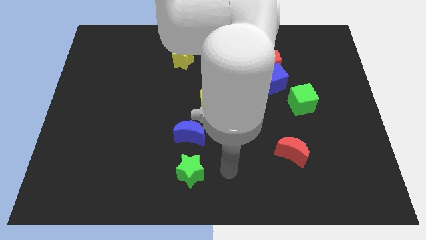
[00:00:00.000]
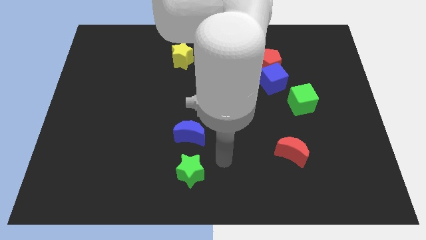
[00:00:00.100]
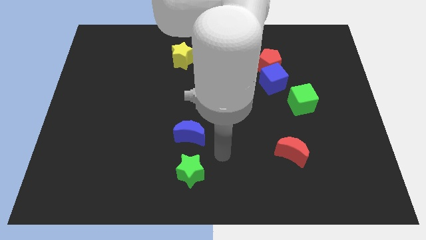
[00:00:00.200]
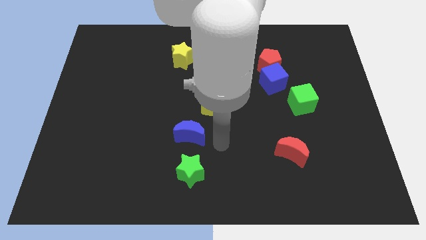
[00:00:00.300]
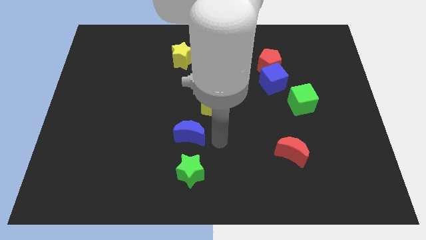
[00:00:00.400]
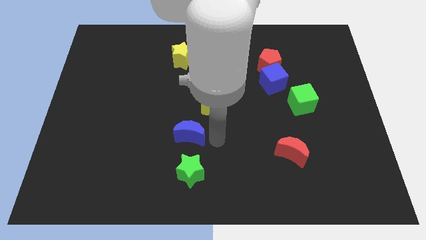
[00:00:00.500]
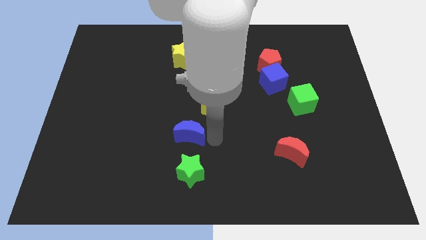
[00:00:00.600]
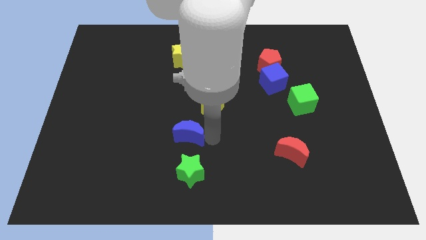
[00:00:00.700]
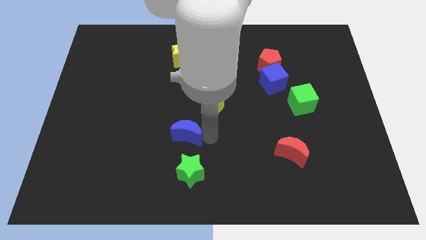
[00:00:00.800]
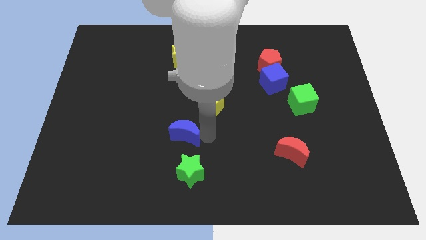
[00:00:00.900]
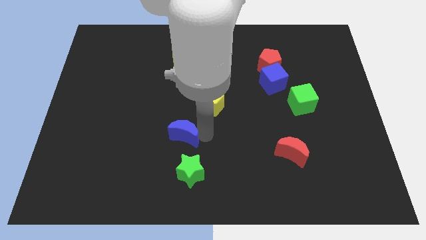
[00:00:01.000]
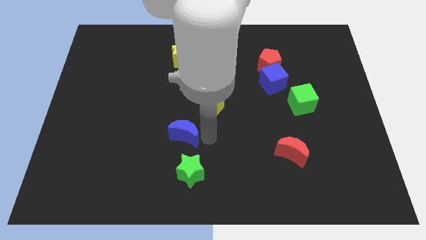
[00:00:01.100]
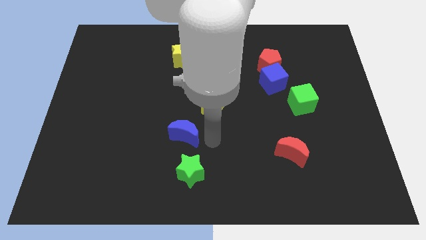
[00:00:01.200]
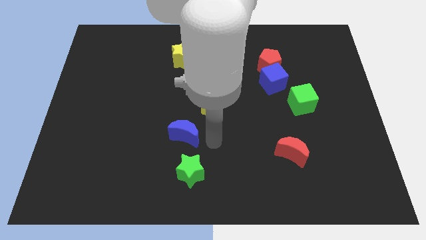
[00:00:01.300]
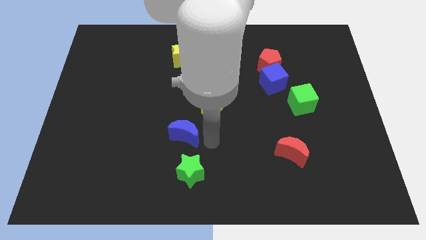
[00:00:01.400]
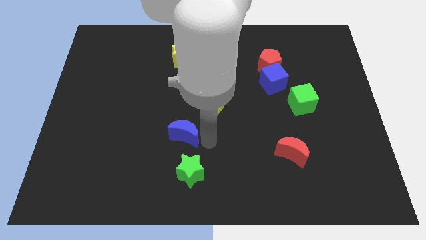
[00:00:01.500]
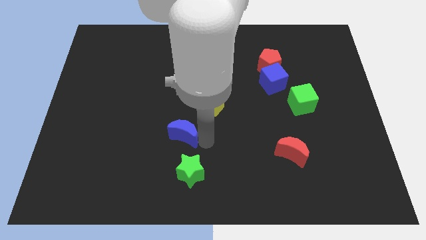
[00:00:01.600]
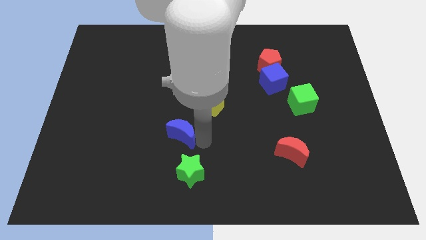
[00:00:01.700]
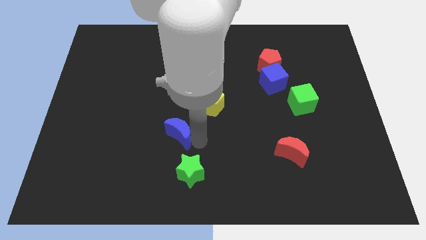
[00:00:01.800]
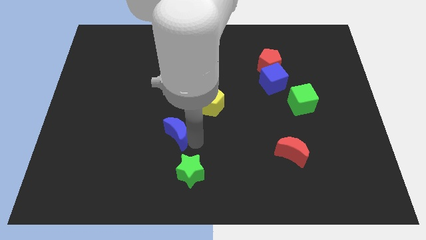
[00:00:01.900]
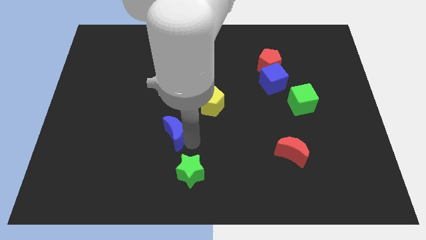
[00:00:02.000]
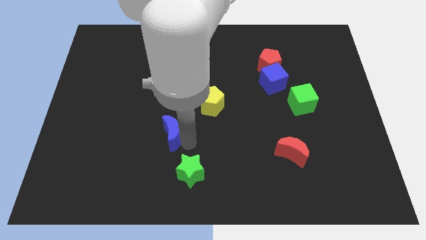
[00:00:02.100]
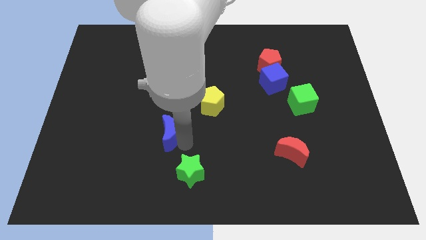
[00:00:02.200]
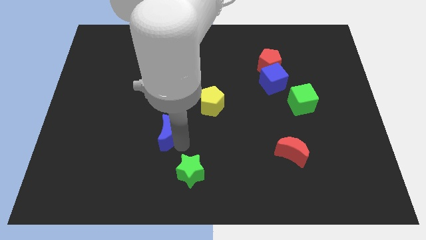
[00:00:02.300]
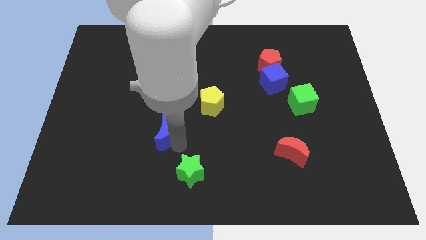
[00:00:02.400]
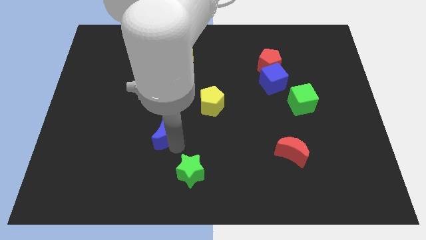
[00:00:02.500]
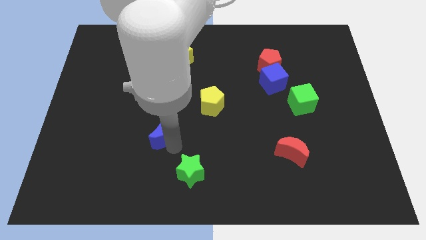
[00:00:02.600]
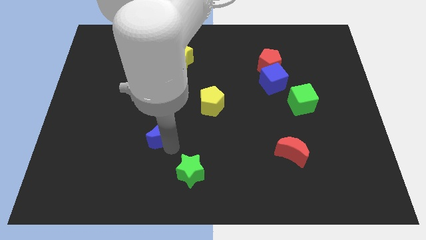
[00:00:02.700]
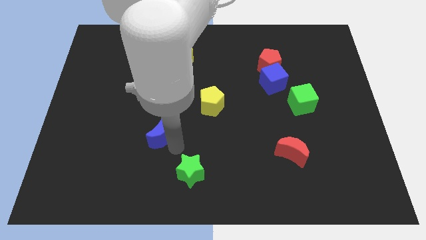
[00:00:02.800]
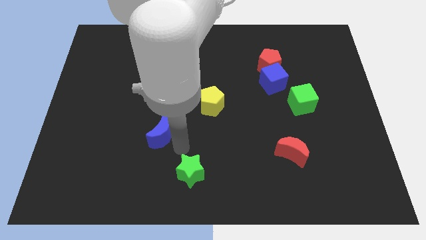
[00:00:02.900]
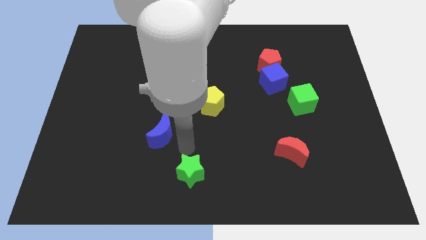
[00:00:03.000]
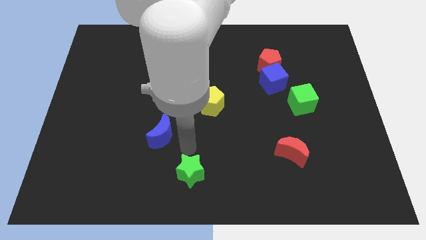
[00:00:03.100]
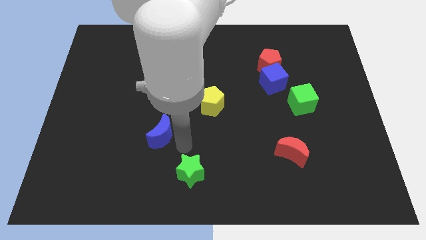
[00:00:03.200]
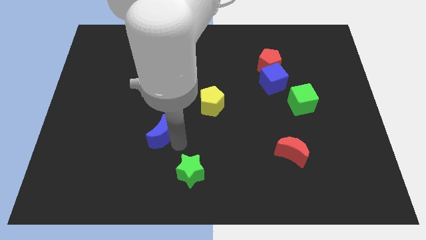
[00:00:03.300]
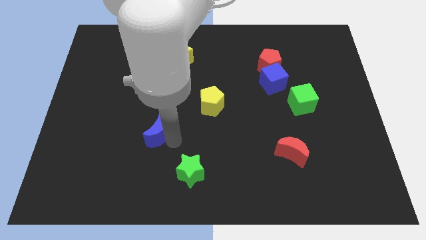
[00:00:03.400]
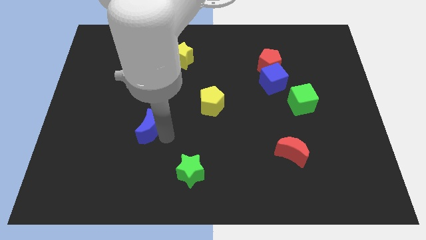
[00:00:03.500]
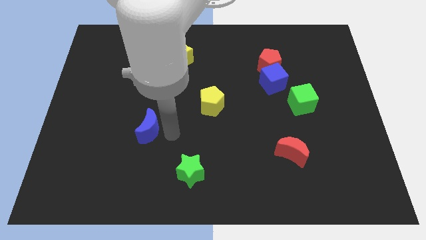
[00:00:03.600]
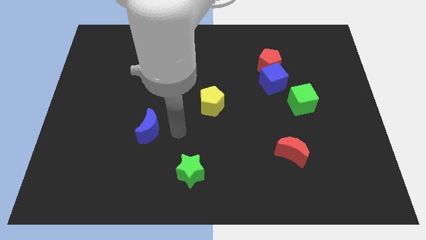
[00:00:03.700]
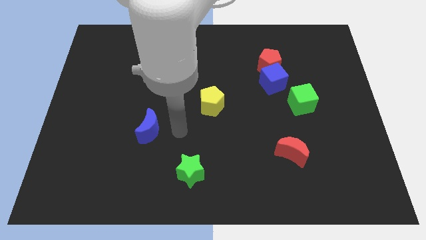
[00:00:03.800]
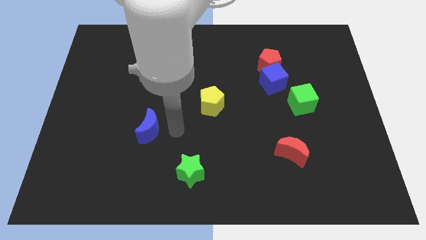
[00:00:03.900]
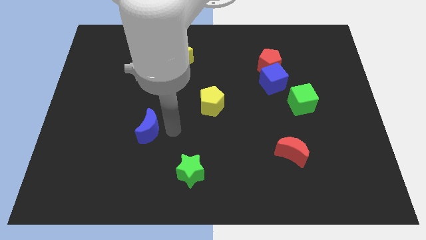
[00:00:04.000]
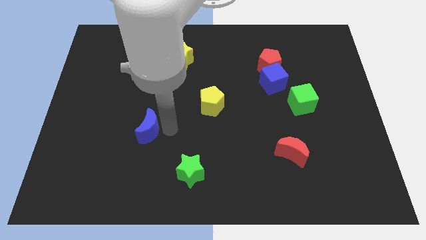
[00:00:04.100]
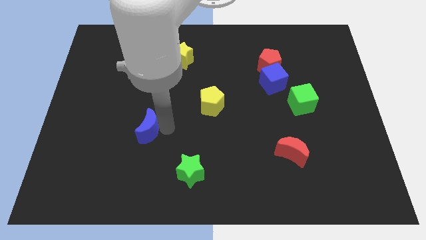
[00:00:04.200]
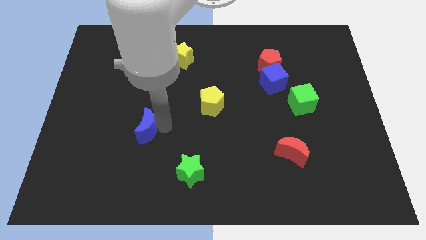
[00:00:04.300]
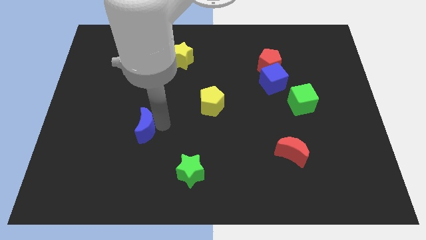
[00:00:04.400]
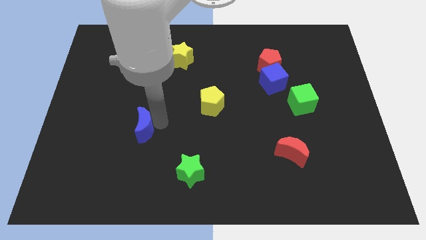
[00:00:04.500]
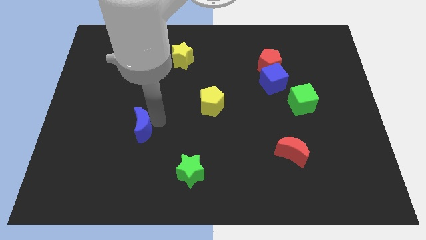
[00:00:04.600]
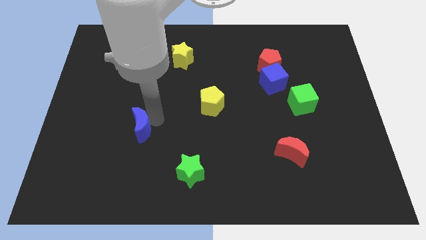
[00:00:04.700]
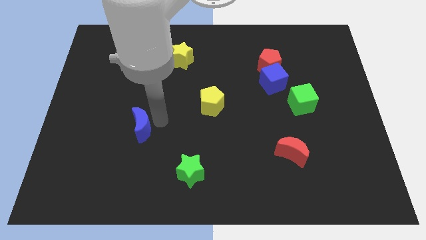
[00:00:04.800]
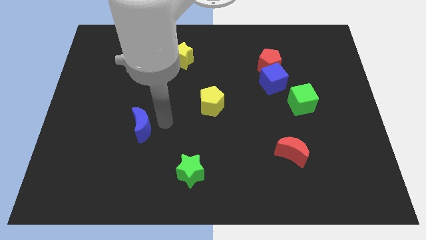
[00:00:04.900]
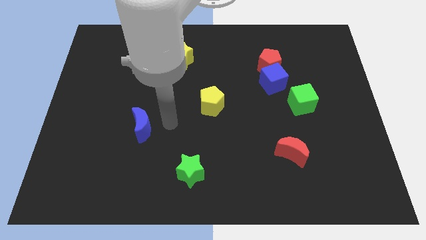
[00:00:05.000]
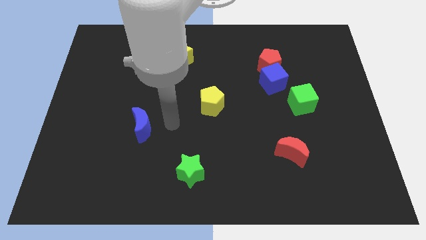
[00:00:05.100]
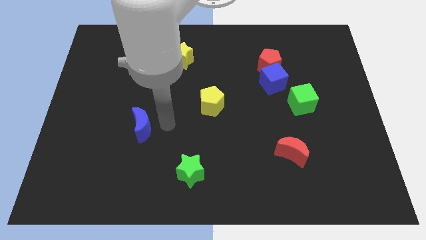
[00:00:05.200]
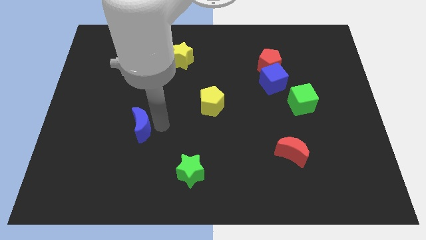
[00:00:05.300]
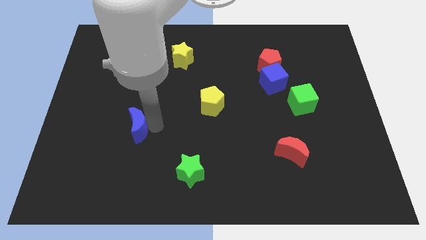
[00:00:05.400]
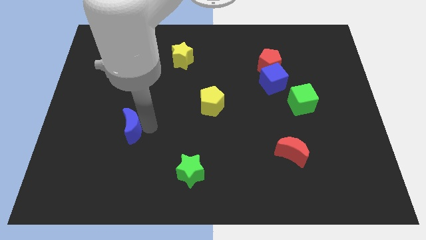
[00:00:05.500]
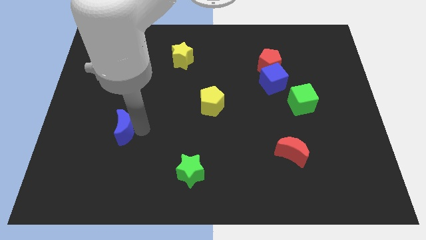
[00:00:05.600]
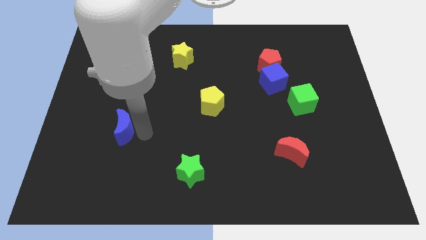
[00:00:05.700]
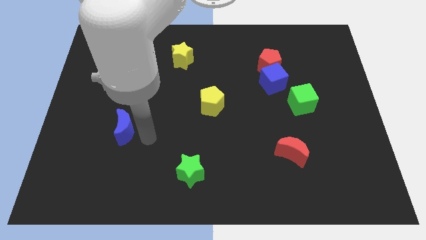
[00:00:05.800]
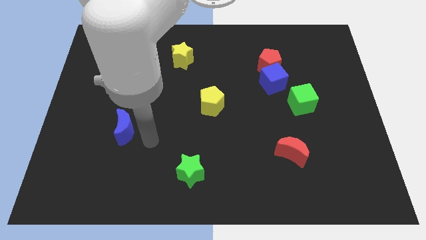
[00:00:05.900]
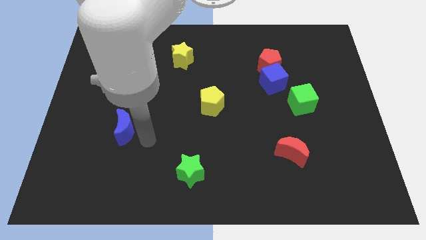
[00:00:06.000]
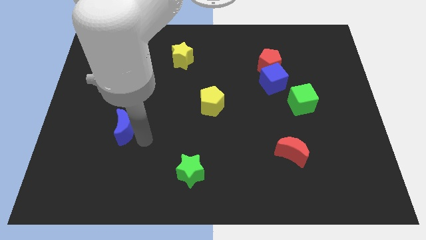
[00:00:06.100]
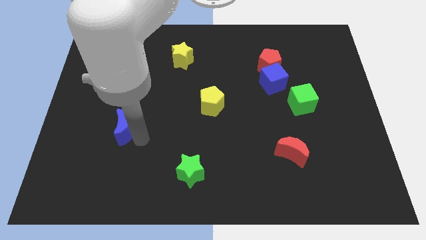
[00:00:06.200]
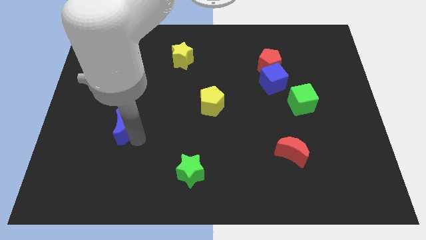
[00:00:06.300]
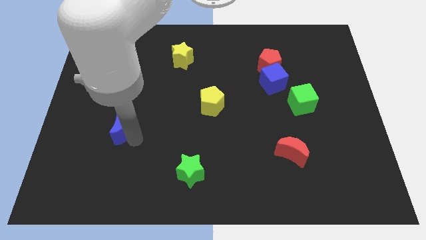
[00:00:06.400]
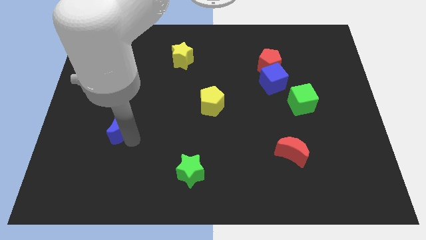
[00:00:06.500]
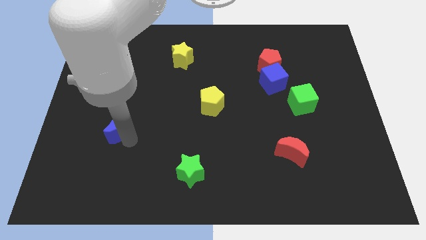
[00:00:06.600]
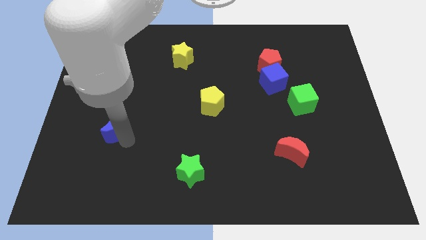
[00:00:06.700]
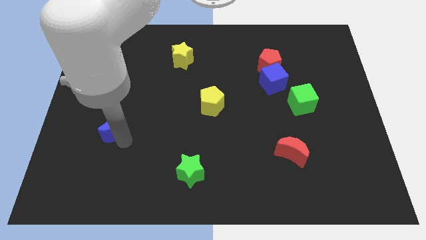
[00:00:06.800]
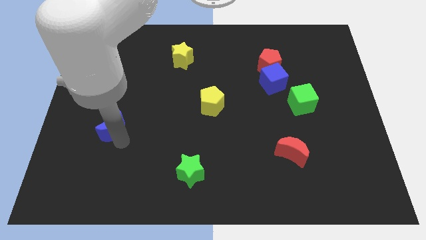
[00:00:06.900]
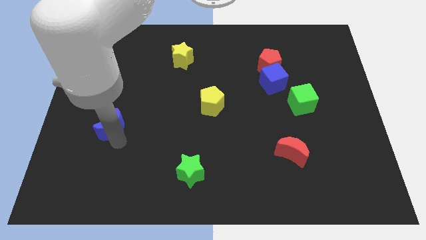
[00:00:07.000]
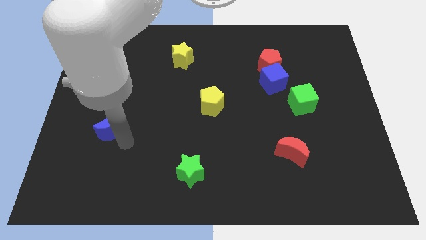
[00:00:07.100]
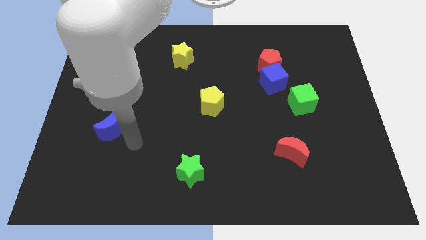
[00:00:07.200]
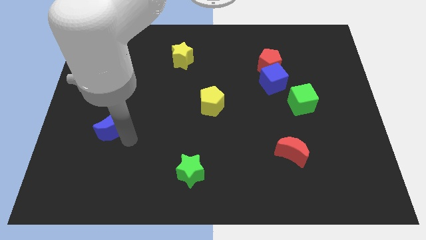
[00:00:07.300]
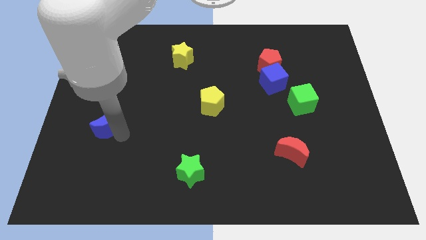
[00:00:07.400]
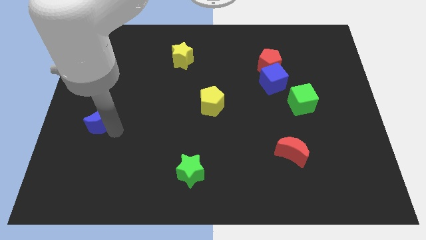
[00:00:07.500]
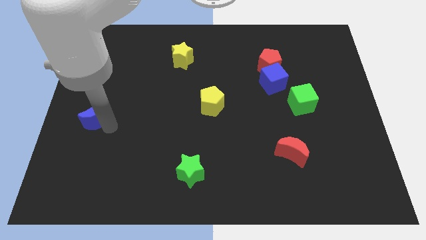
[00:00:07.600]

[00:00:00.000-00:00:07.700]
slide the blue moon to the left side
